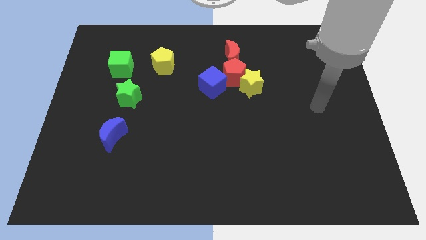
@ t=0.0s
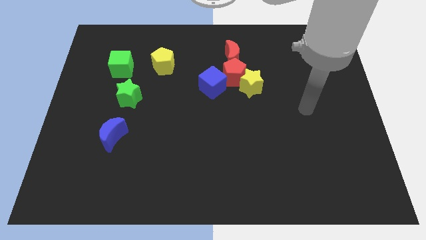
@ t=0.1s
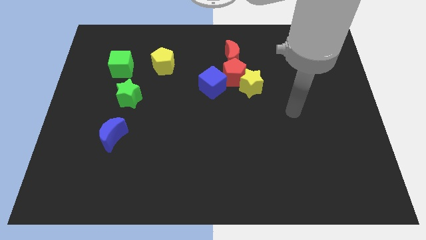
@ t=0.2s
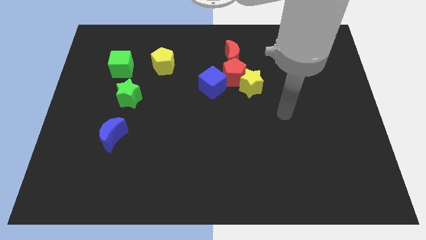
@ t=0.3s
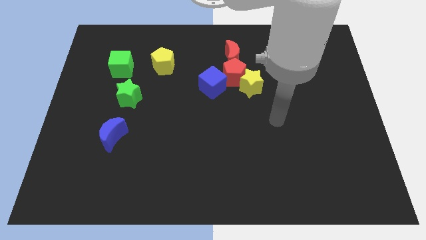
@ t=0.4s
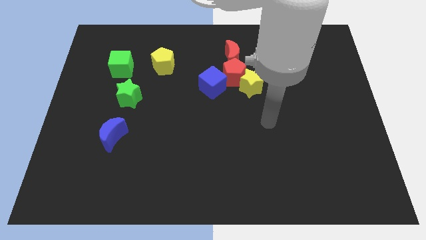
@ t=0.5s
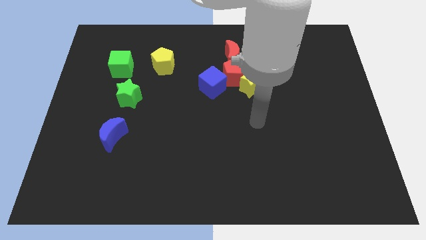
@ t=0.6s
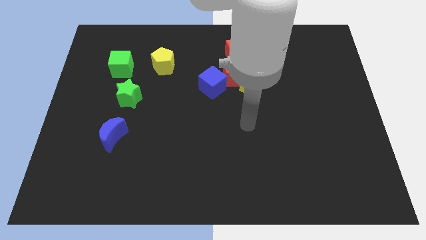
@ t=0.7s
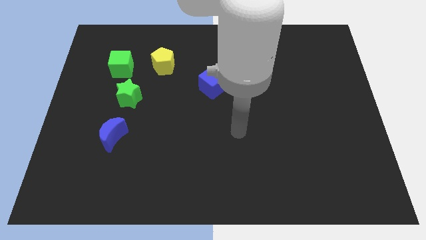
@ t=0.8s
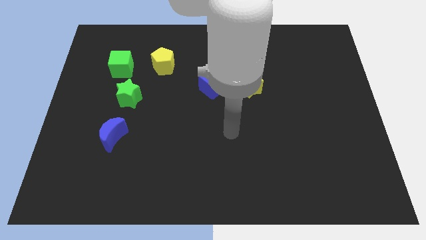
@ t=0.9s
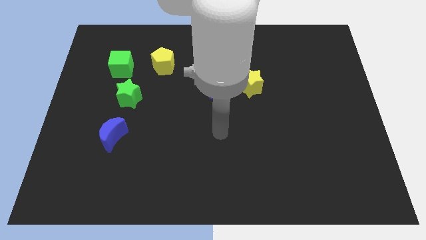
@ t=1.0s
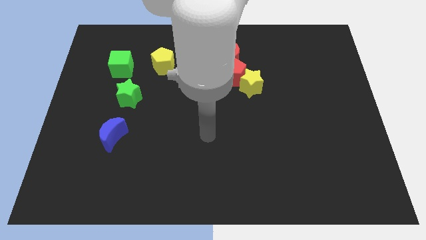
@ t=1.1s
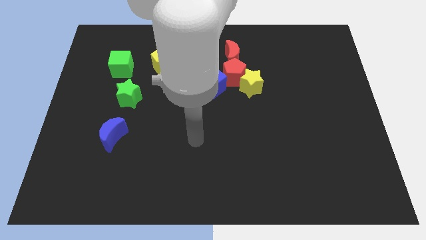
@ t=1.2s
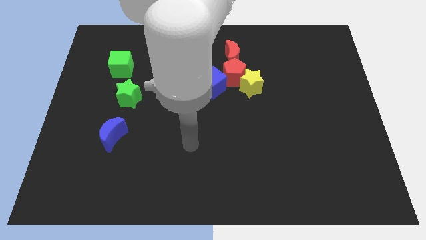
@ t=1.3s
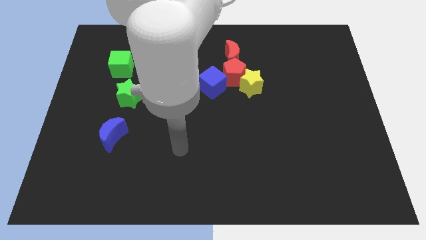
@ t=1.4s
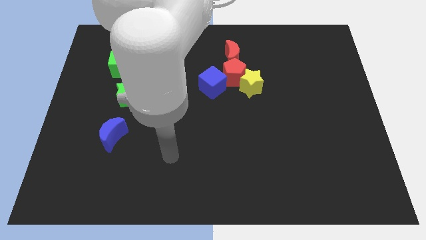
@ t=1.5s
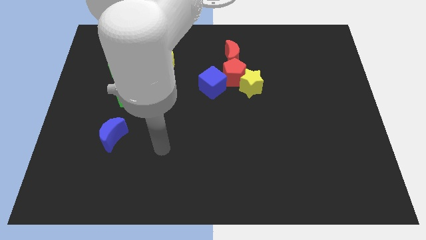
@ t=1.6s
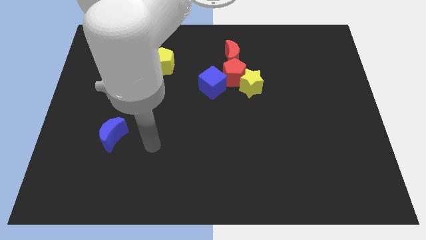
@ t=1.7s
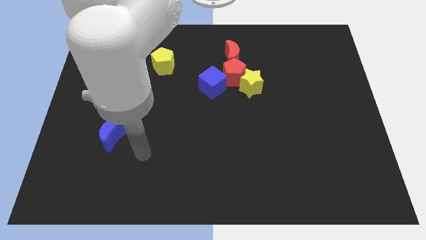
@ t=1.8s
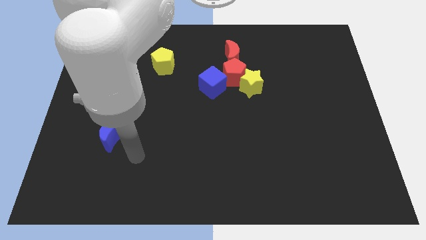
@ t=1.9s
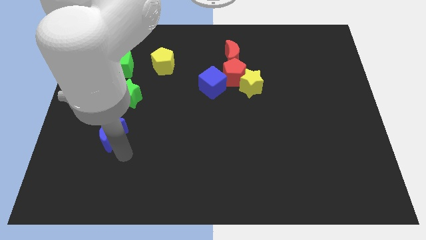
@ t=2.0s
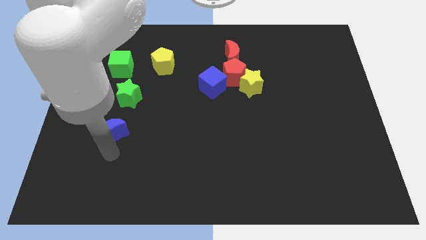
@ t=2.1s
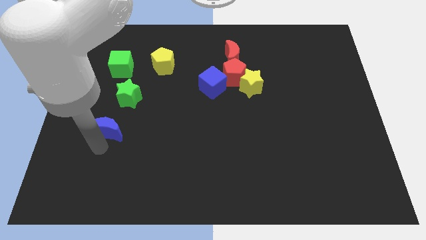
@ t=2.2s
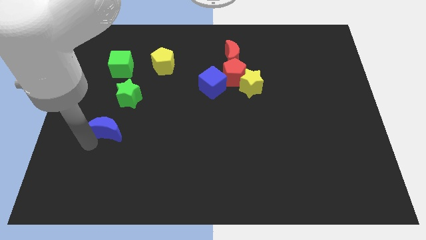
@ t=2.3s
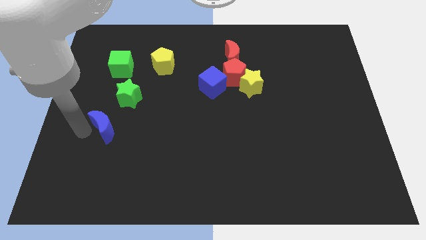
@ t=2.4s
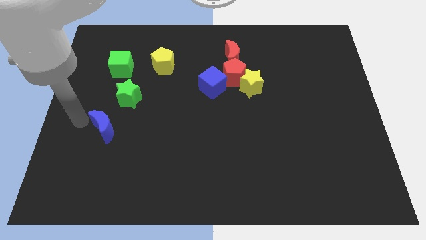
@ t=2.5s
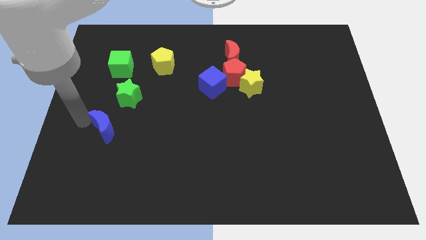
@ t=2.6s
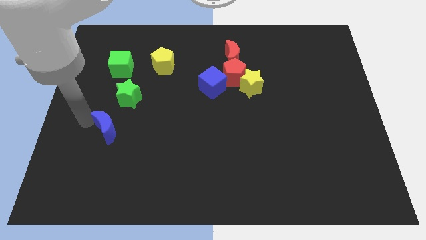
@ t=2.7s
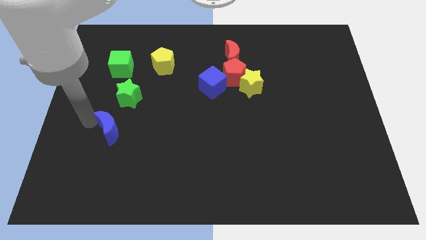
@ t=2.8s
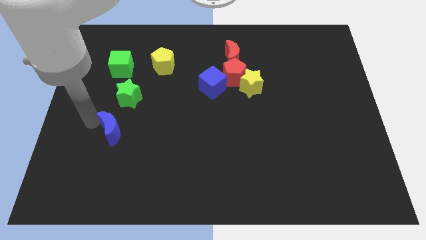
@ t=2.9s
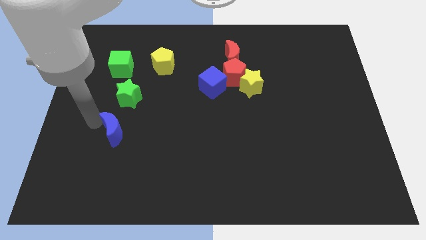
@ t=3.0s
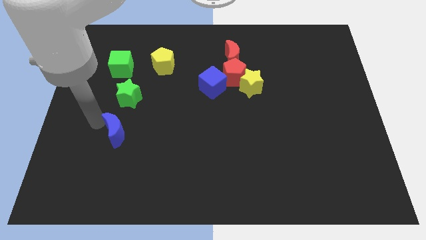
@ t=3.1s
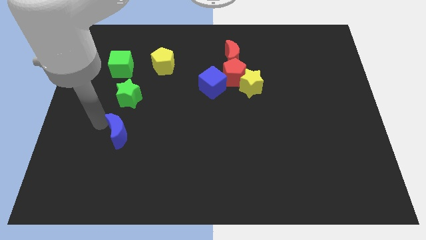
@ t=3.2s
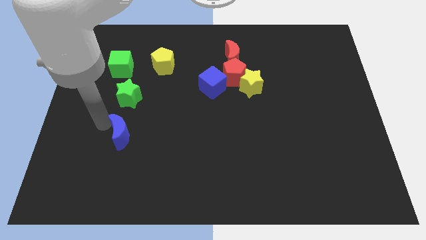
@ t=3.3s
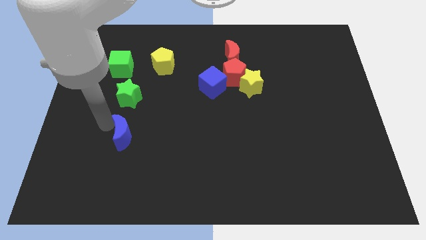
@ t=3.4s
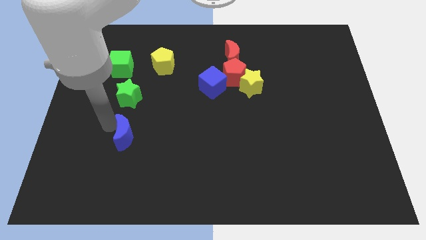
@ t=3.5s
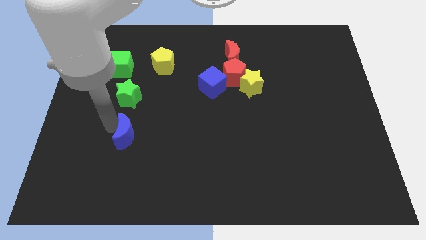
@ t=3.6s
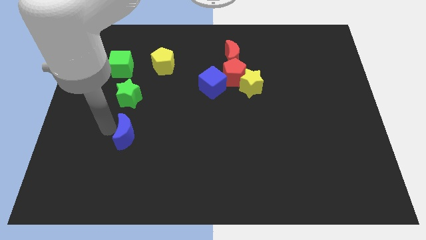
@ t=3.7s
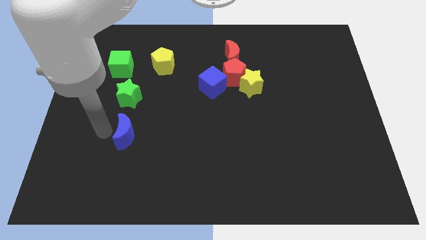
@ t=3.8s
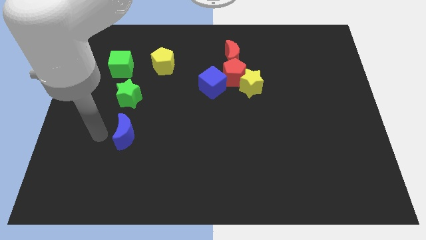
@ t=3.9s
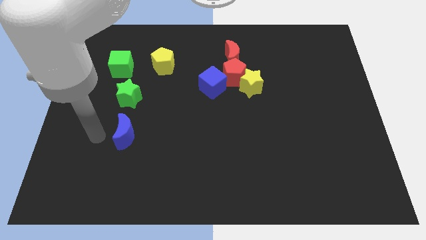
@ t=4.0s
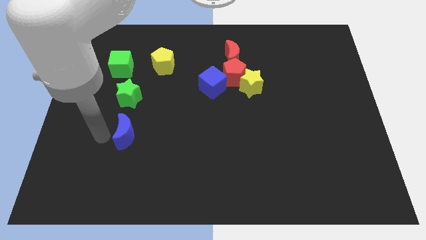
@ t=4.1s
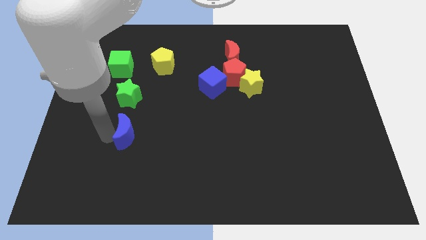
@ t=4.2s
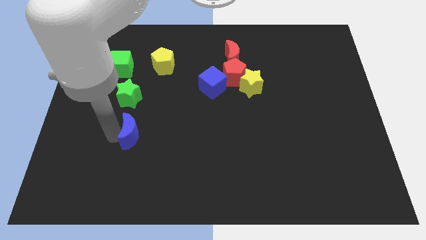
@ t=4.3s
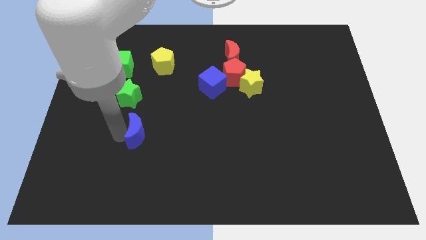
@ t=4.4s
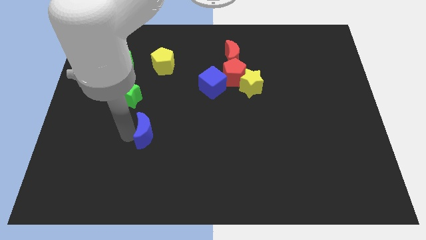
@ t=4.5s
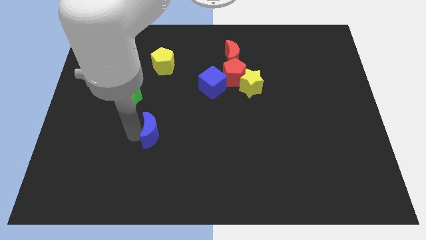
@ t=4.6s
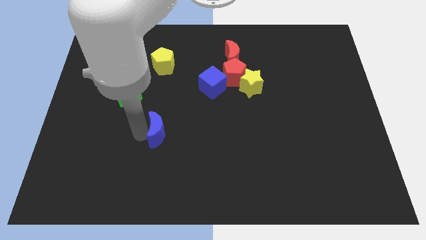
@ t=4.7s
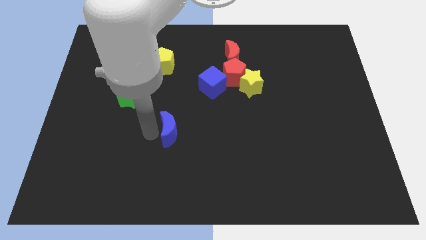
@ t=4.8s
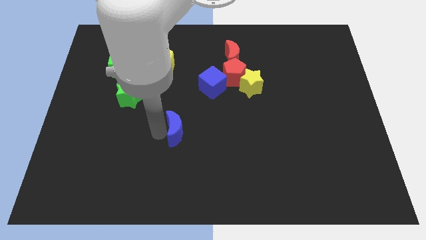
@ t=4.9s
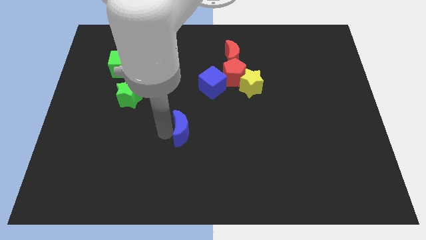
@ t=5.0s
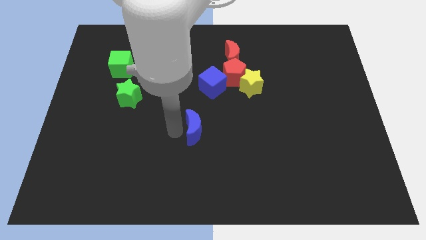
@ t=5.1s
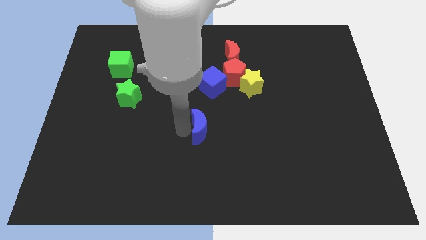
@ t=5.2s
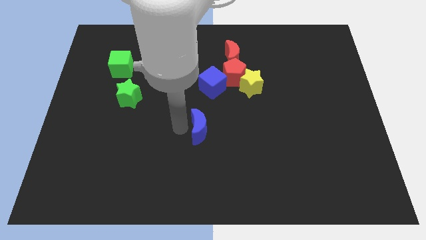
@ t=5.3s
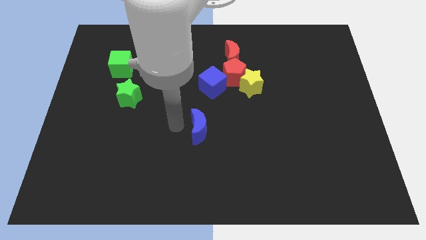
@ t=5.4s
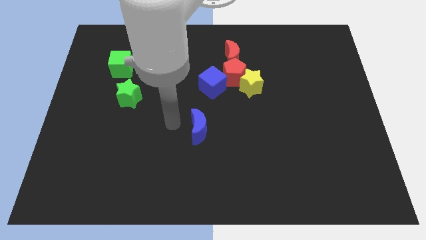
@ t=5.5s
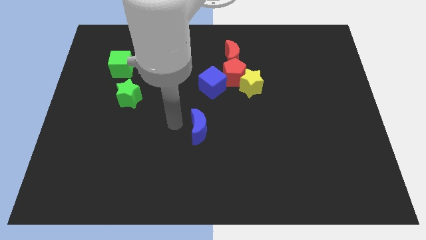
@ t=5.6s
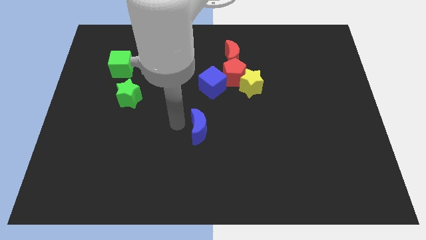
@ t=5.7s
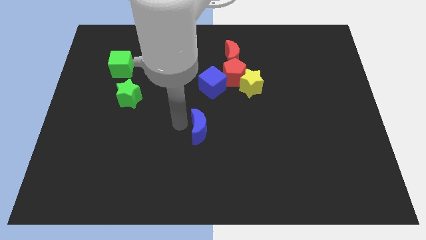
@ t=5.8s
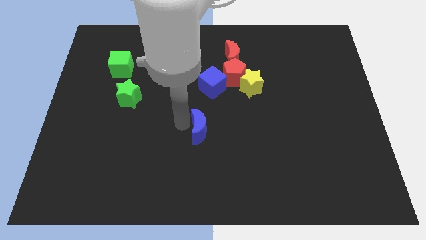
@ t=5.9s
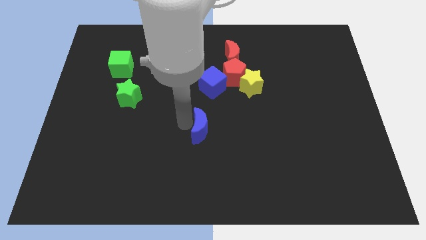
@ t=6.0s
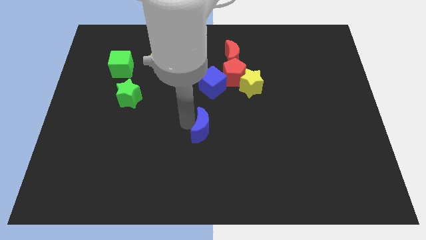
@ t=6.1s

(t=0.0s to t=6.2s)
push the blue moon right

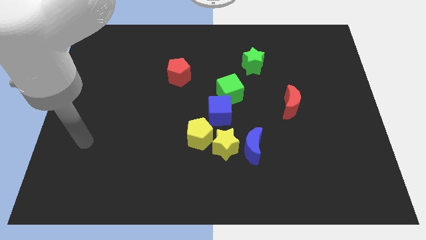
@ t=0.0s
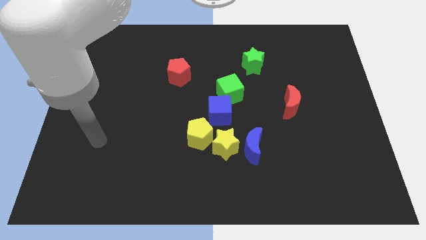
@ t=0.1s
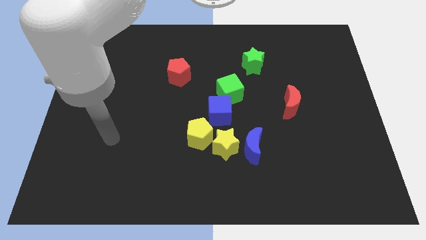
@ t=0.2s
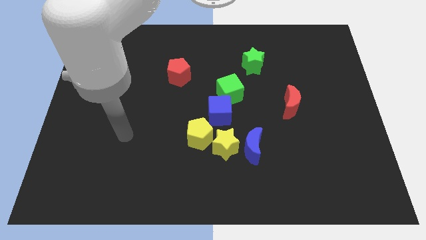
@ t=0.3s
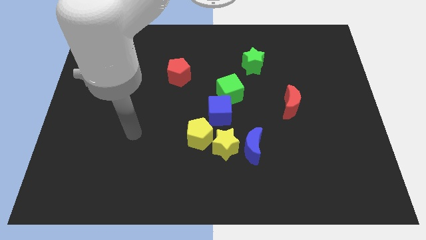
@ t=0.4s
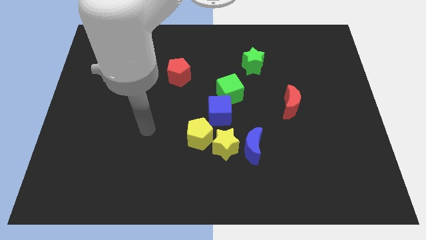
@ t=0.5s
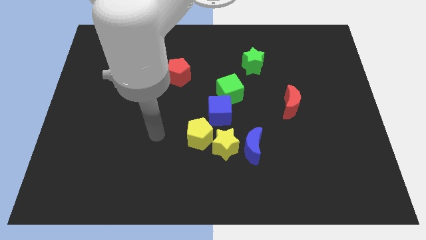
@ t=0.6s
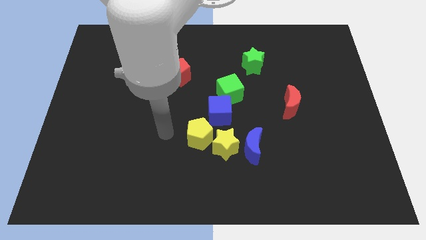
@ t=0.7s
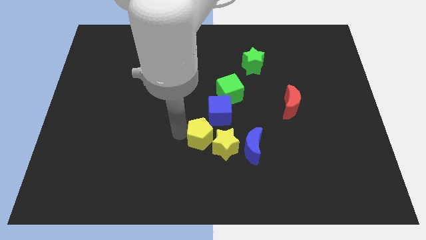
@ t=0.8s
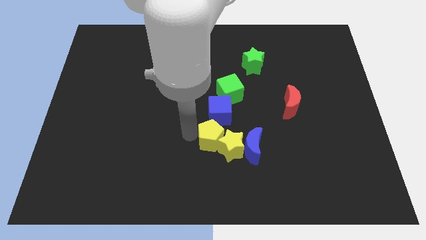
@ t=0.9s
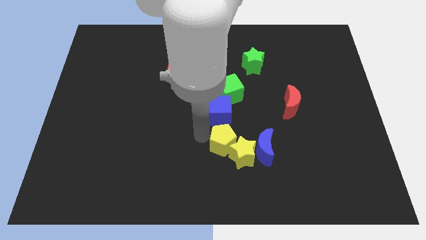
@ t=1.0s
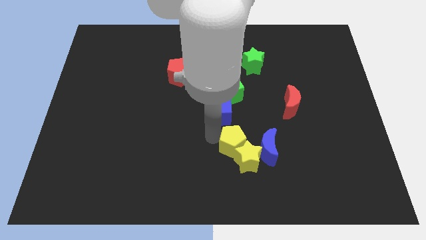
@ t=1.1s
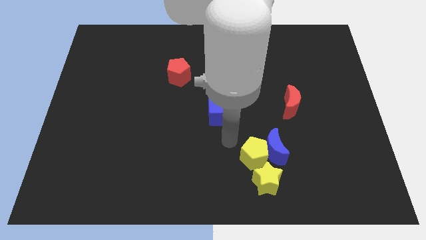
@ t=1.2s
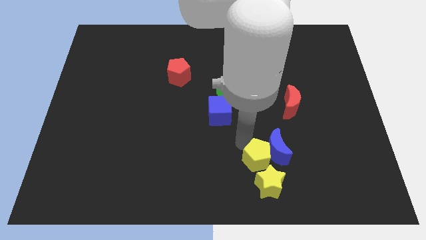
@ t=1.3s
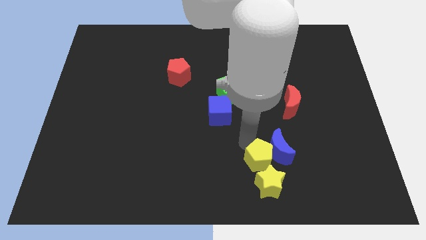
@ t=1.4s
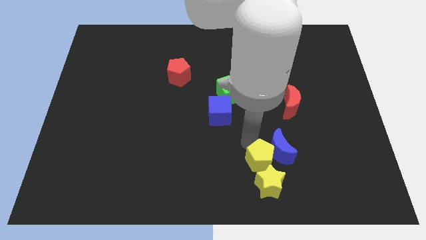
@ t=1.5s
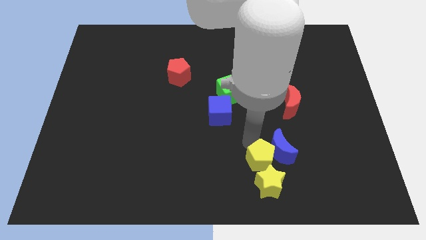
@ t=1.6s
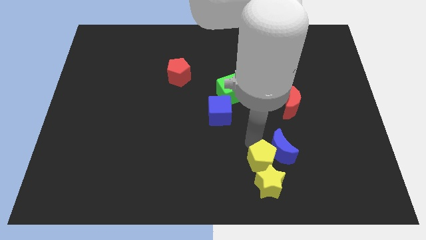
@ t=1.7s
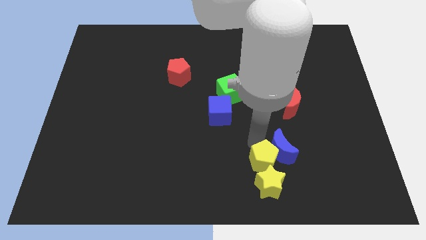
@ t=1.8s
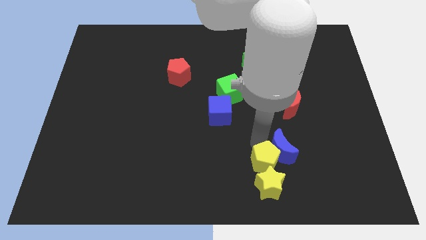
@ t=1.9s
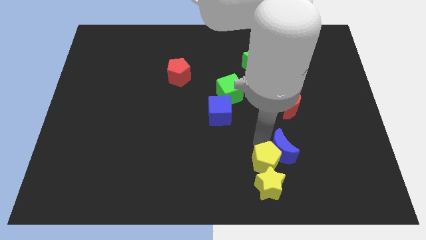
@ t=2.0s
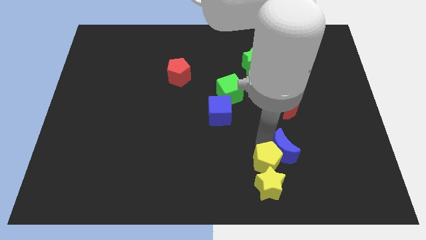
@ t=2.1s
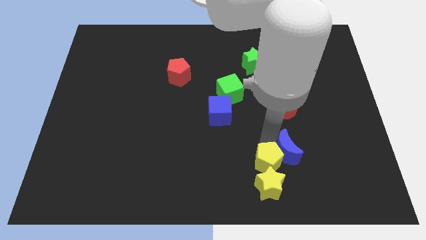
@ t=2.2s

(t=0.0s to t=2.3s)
slightly push the blue moon right
